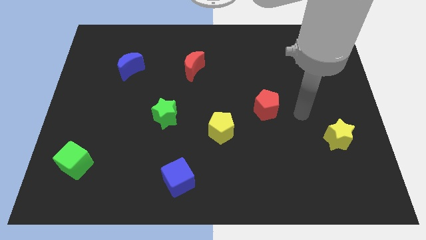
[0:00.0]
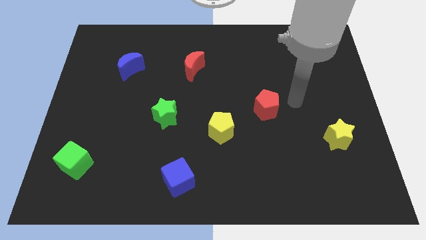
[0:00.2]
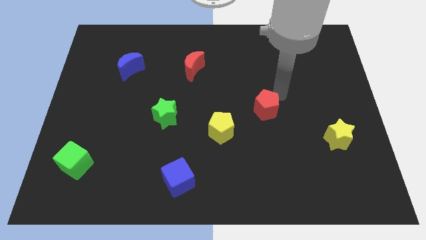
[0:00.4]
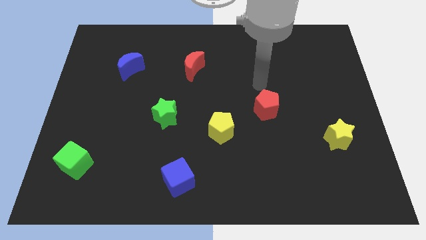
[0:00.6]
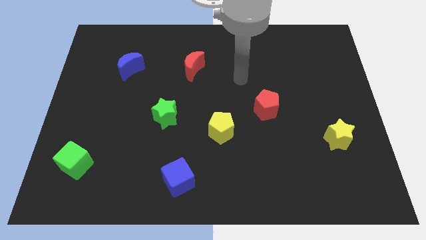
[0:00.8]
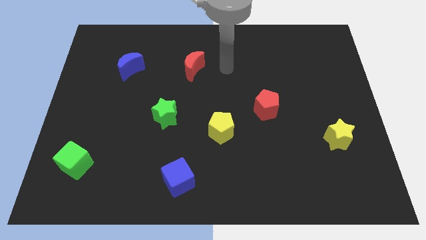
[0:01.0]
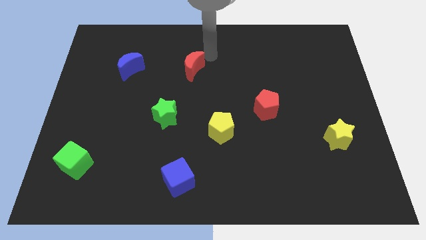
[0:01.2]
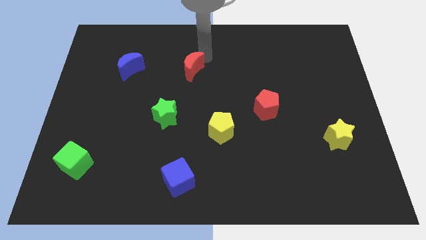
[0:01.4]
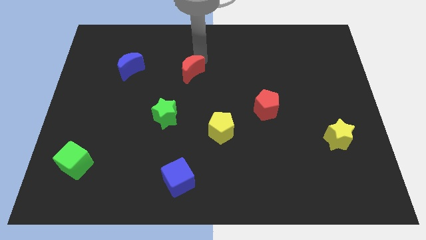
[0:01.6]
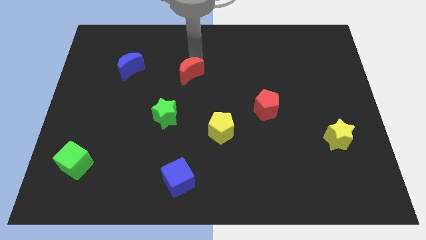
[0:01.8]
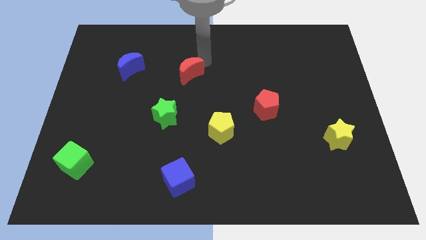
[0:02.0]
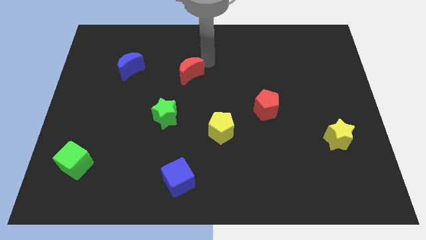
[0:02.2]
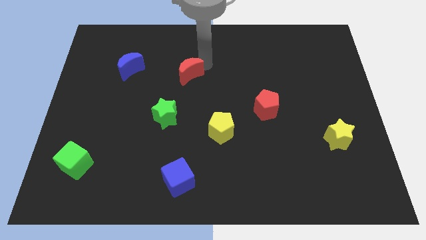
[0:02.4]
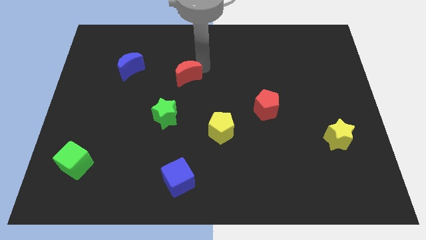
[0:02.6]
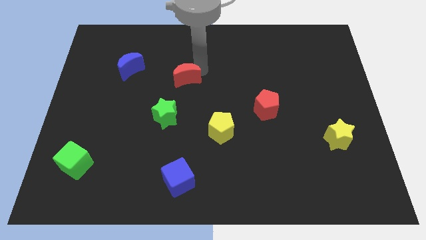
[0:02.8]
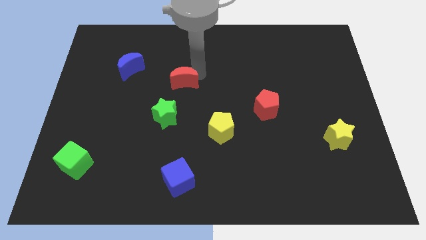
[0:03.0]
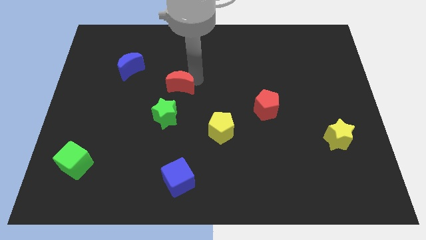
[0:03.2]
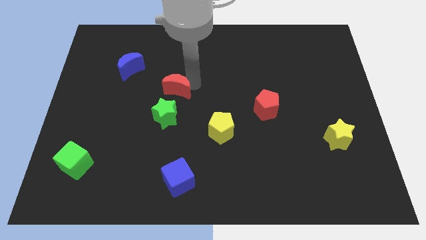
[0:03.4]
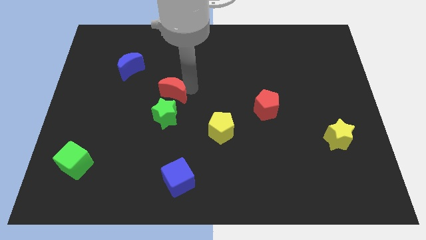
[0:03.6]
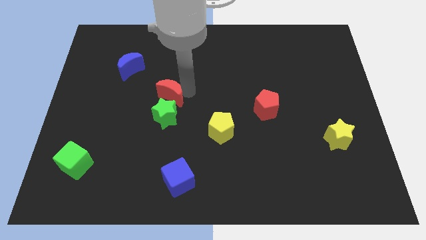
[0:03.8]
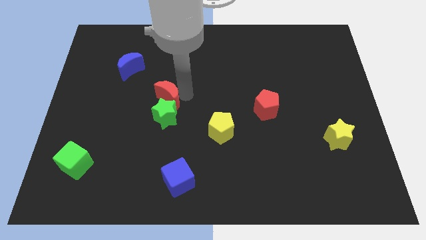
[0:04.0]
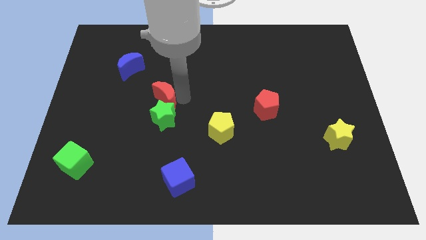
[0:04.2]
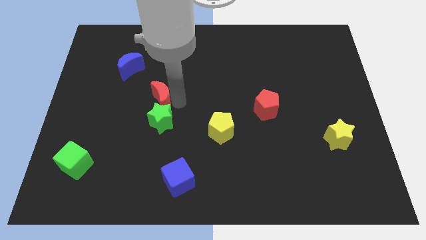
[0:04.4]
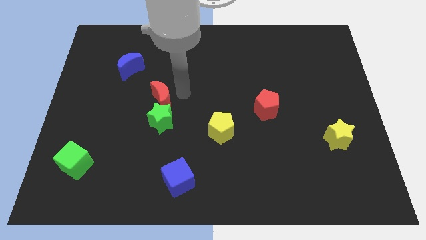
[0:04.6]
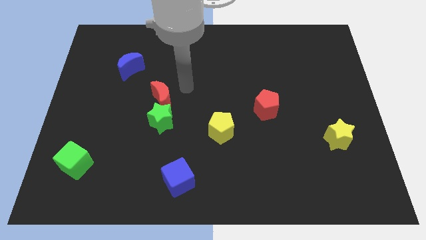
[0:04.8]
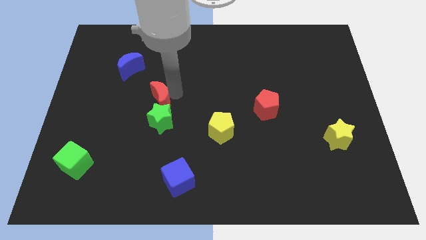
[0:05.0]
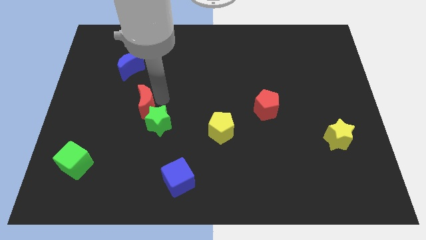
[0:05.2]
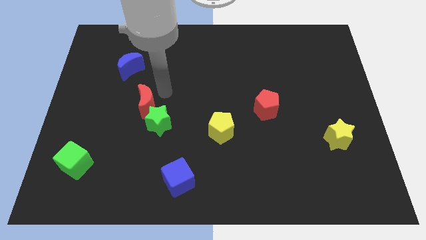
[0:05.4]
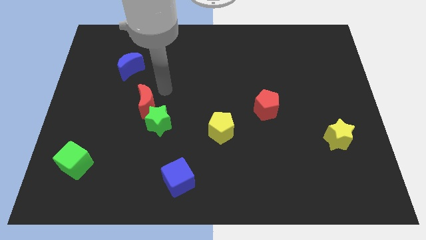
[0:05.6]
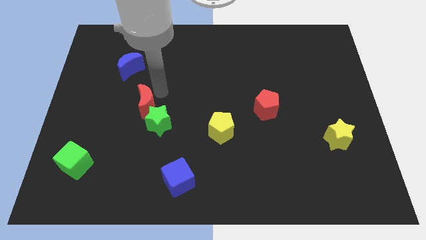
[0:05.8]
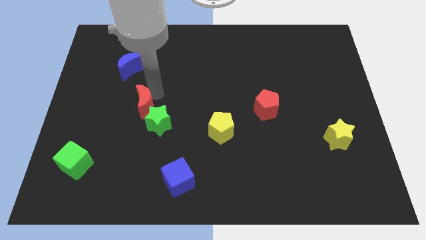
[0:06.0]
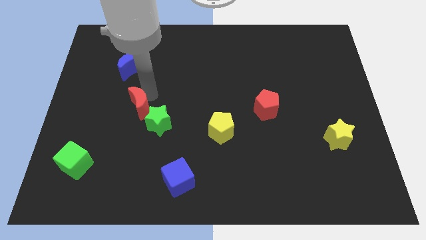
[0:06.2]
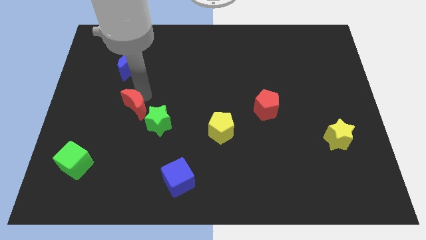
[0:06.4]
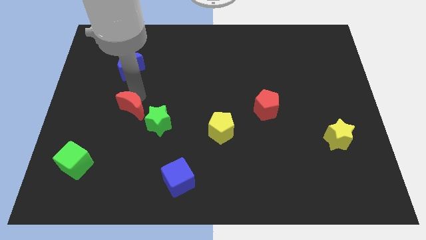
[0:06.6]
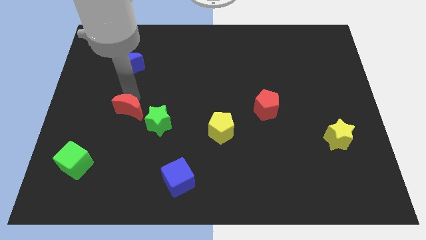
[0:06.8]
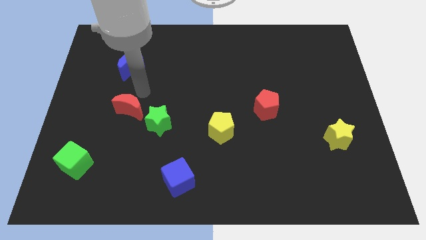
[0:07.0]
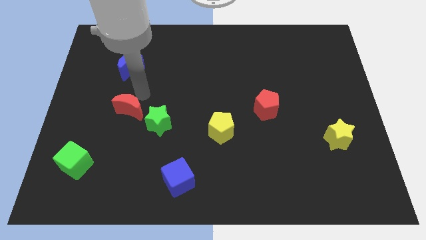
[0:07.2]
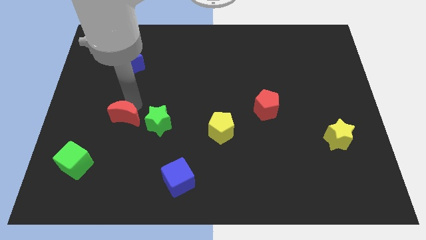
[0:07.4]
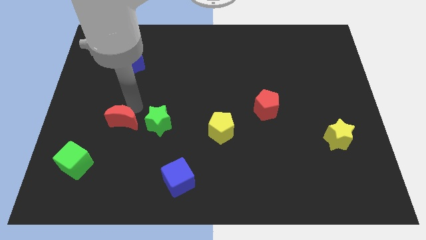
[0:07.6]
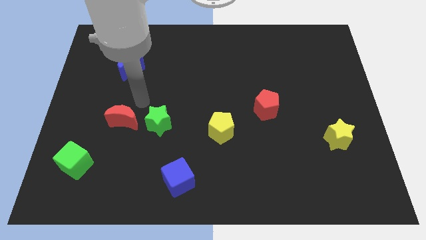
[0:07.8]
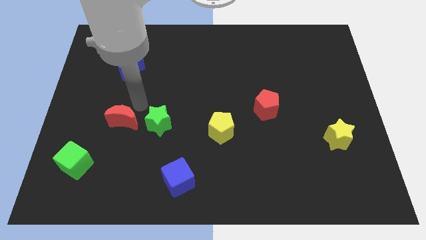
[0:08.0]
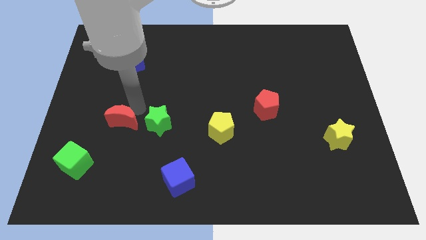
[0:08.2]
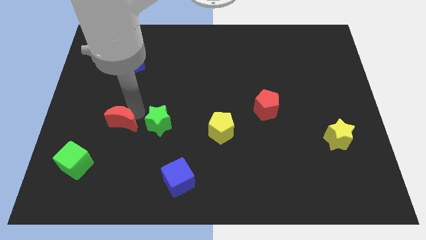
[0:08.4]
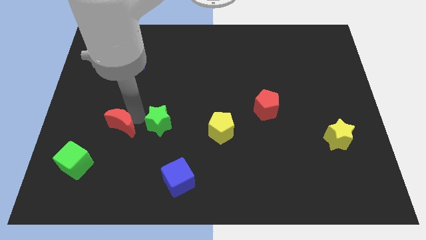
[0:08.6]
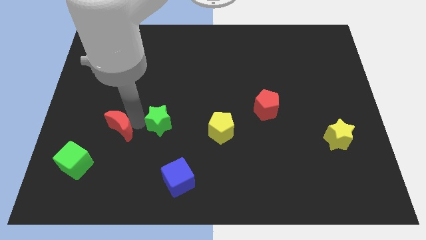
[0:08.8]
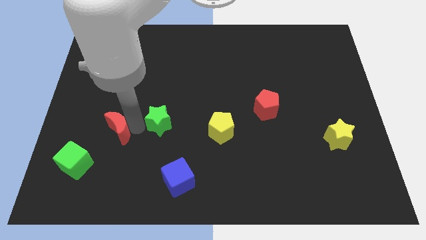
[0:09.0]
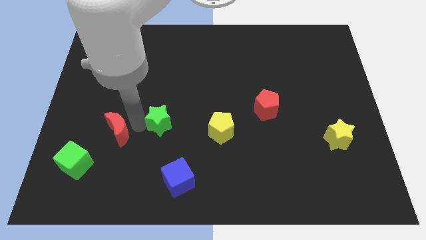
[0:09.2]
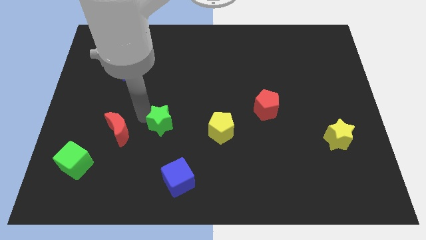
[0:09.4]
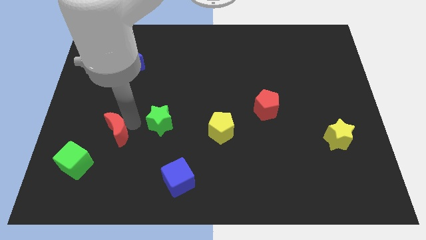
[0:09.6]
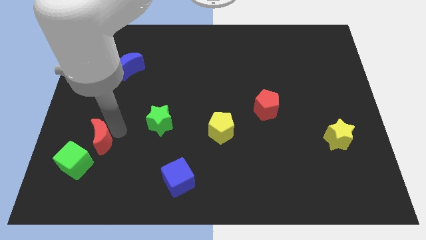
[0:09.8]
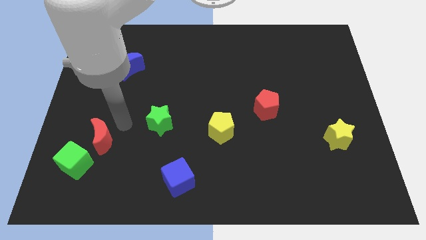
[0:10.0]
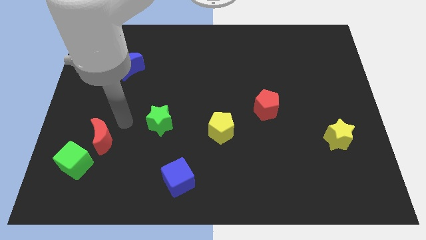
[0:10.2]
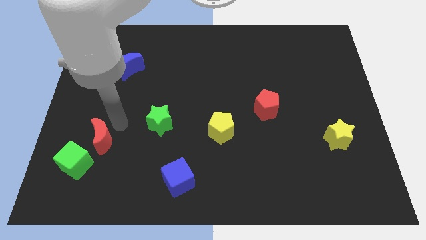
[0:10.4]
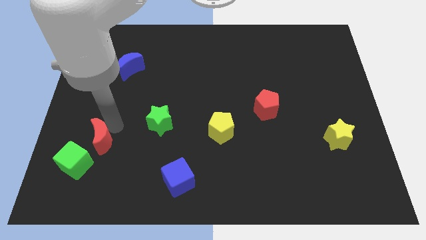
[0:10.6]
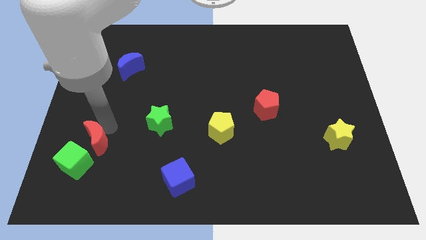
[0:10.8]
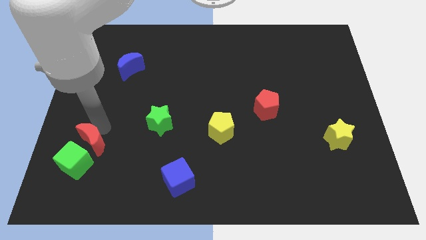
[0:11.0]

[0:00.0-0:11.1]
slide the red moon close to the green cube

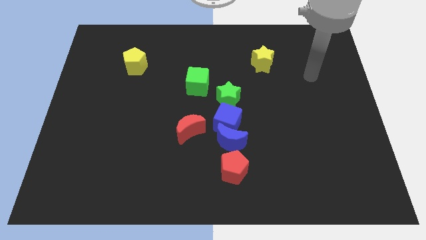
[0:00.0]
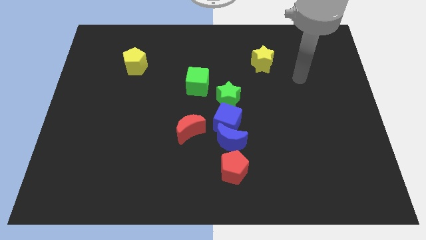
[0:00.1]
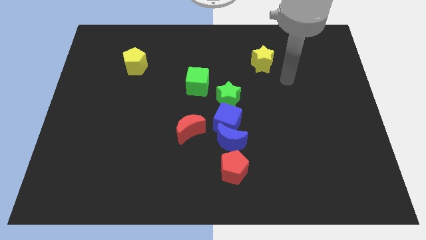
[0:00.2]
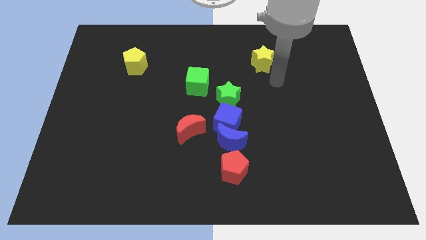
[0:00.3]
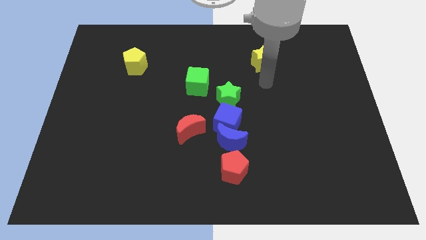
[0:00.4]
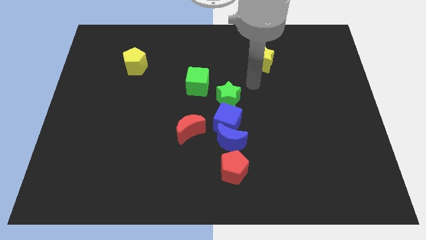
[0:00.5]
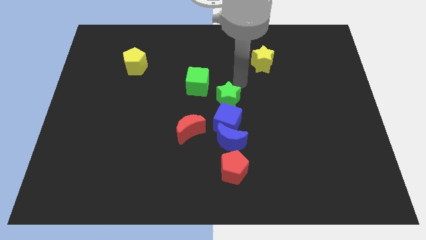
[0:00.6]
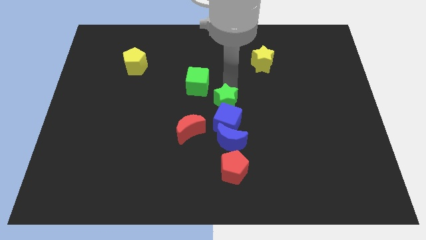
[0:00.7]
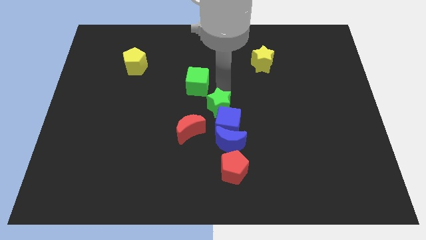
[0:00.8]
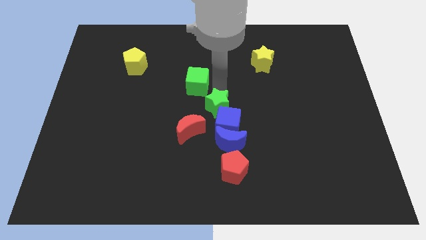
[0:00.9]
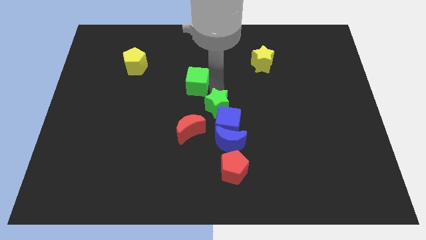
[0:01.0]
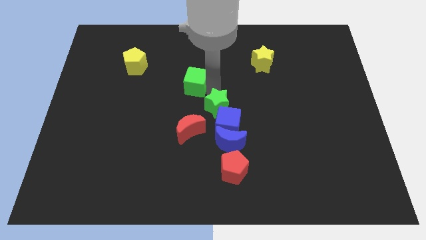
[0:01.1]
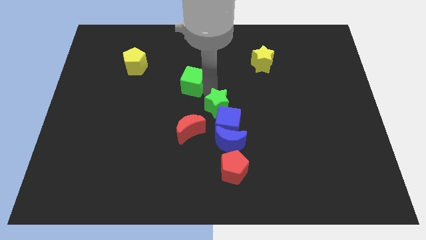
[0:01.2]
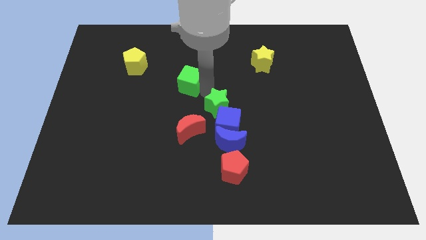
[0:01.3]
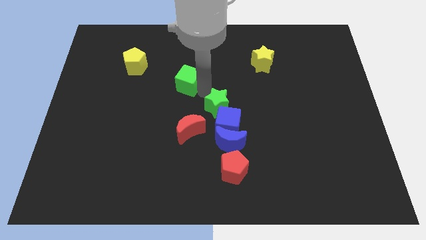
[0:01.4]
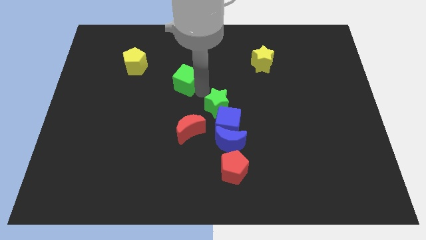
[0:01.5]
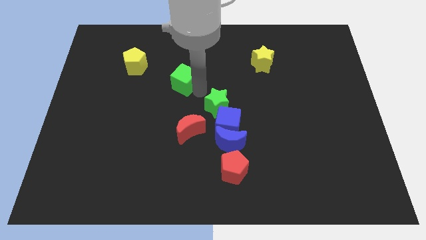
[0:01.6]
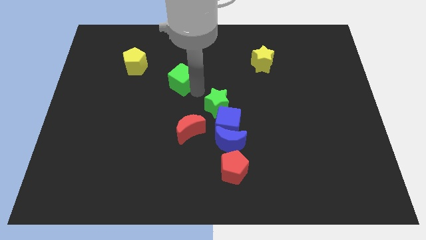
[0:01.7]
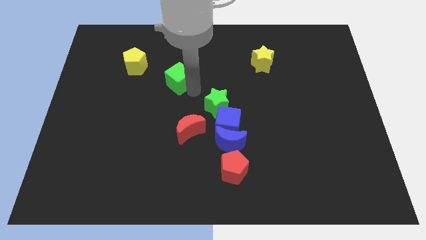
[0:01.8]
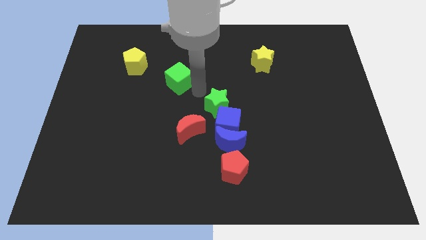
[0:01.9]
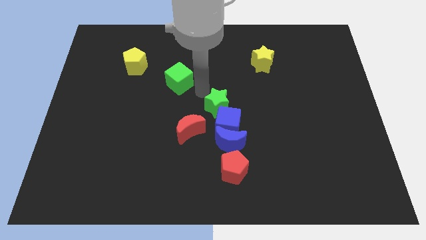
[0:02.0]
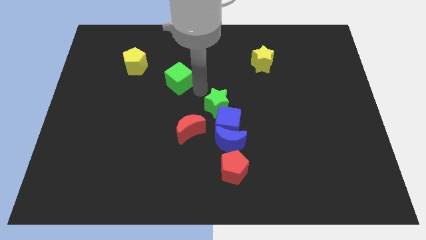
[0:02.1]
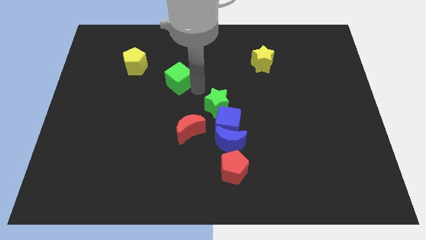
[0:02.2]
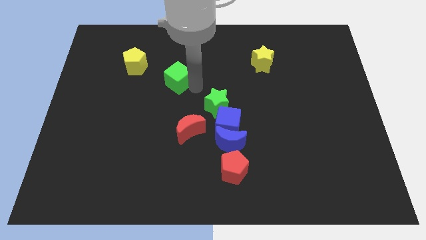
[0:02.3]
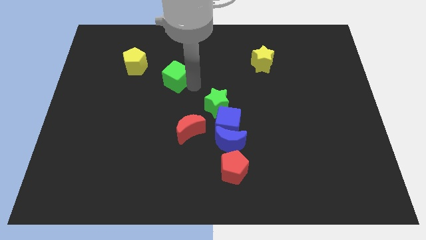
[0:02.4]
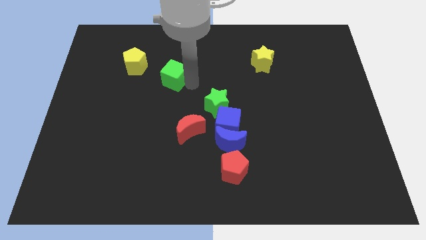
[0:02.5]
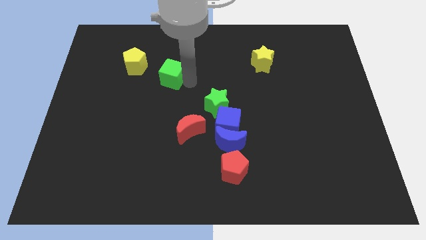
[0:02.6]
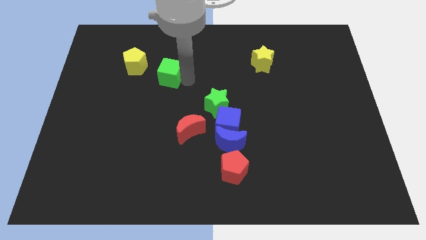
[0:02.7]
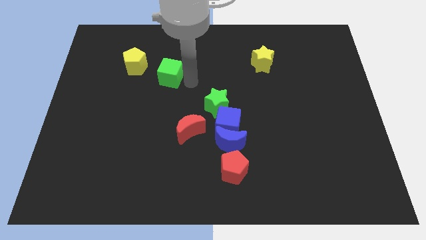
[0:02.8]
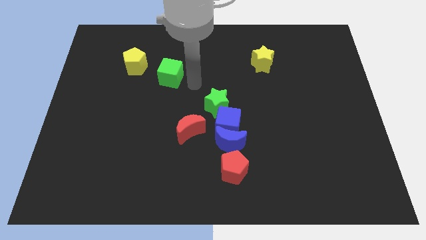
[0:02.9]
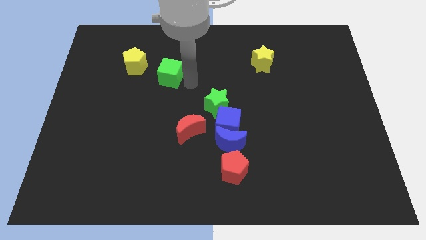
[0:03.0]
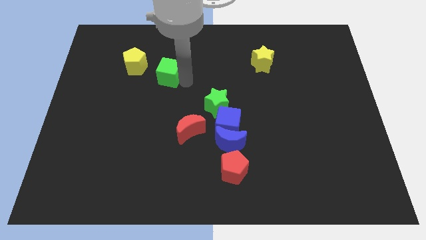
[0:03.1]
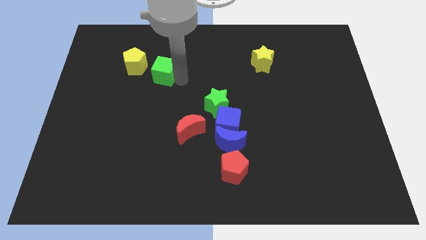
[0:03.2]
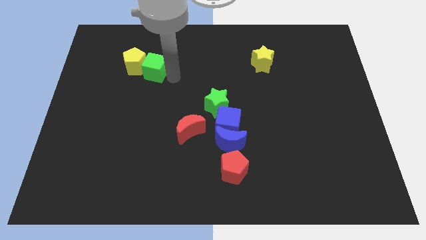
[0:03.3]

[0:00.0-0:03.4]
move the green cube towards the yellow pentagon
